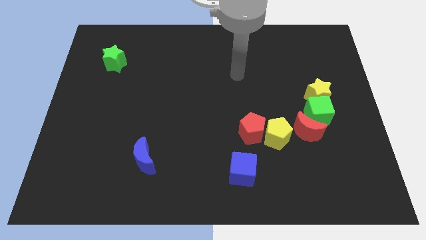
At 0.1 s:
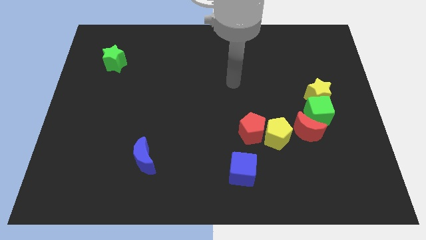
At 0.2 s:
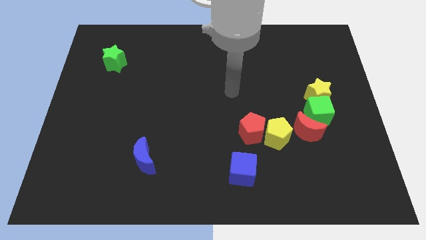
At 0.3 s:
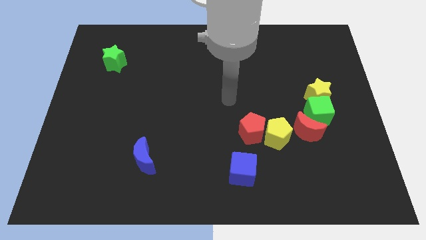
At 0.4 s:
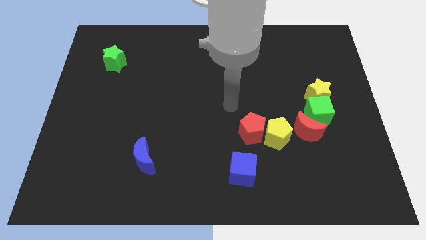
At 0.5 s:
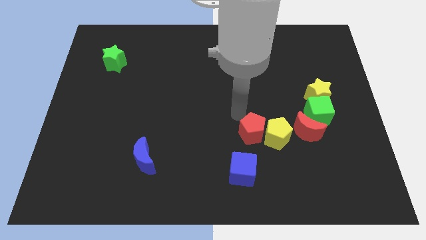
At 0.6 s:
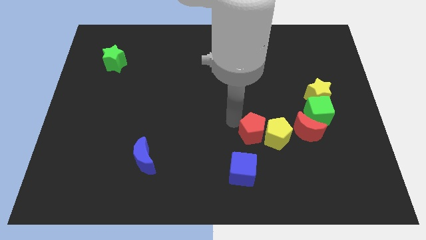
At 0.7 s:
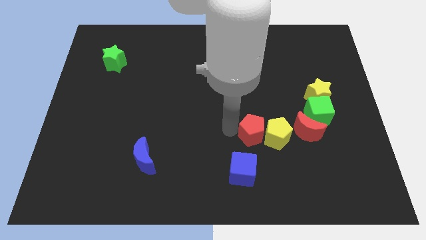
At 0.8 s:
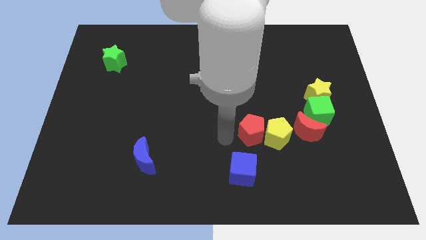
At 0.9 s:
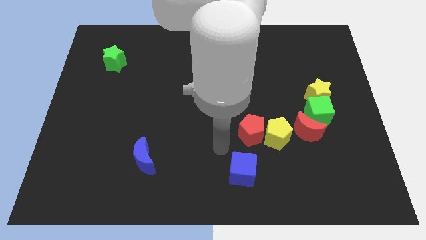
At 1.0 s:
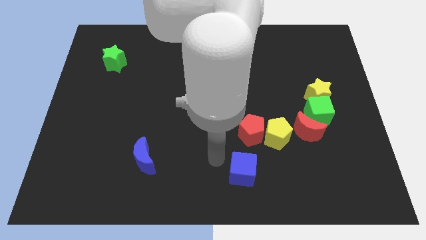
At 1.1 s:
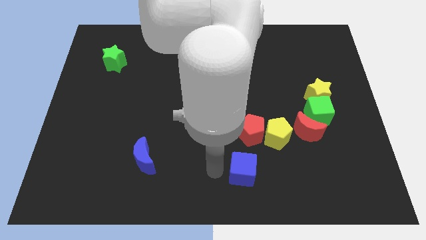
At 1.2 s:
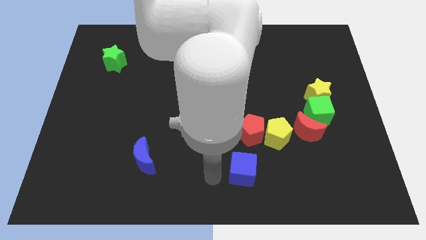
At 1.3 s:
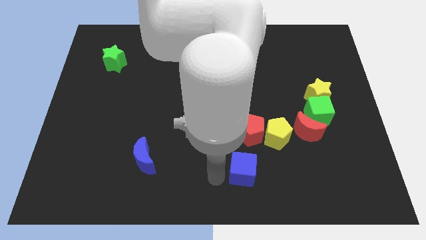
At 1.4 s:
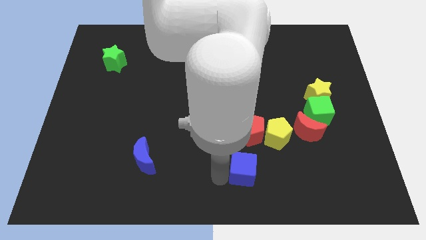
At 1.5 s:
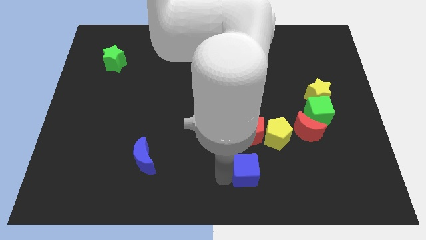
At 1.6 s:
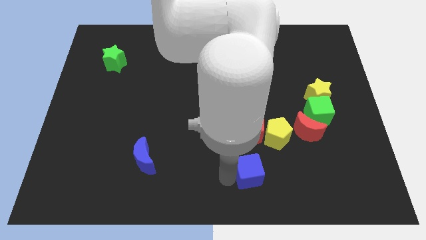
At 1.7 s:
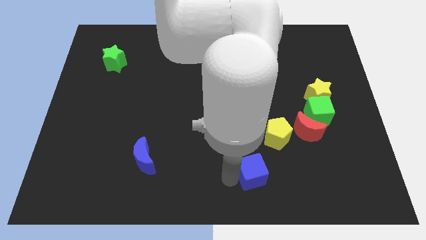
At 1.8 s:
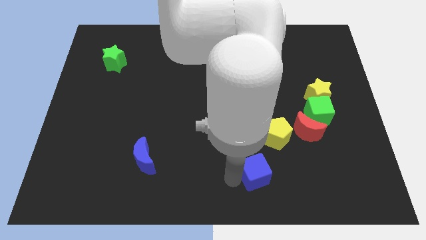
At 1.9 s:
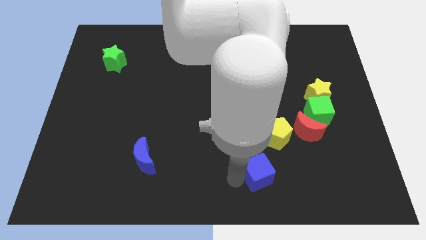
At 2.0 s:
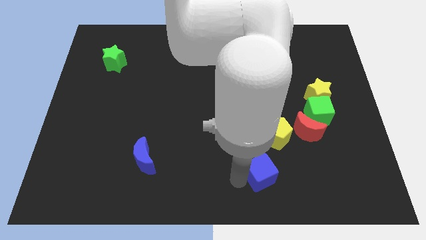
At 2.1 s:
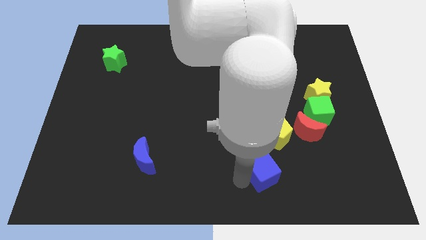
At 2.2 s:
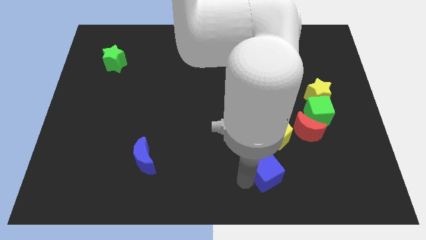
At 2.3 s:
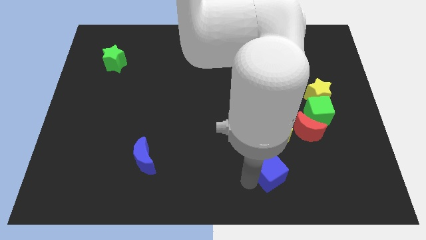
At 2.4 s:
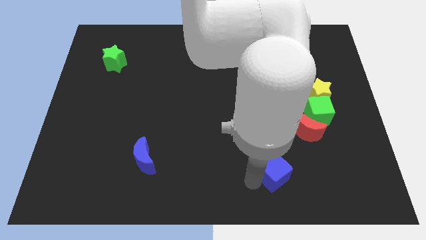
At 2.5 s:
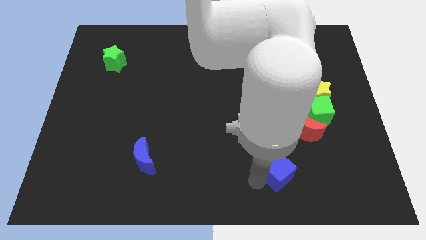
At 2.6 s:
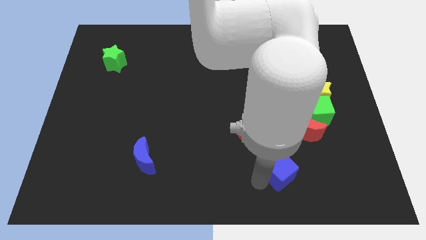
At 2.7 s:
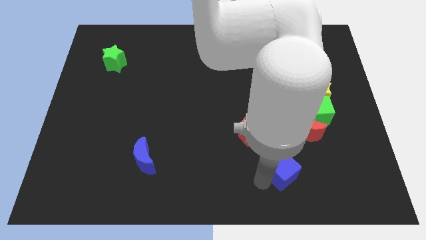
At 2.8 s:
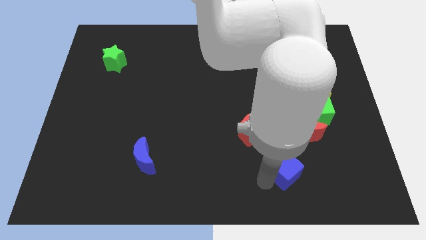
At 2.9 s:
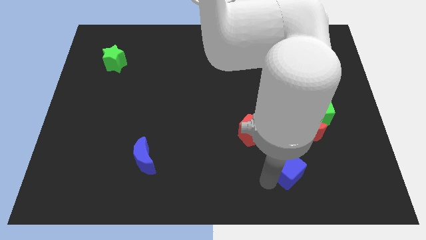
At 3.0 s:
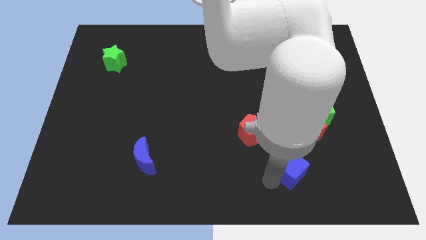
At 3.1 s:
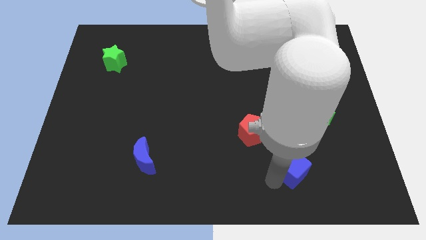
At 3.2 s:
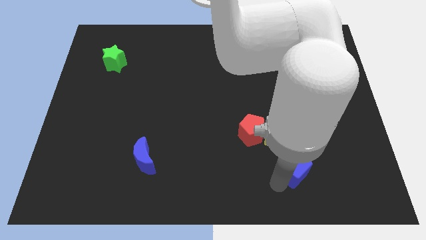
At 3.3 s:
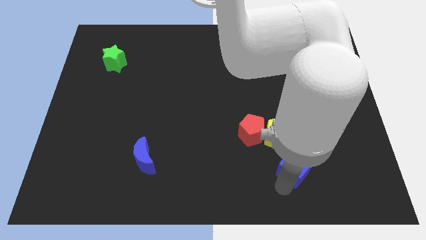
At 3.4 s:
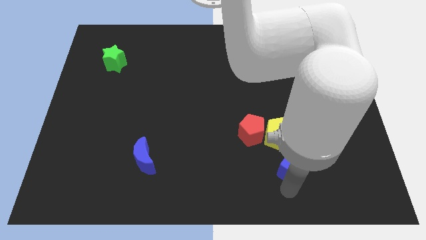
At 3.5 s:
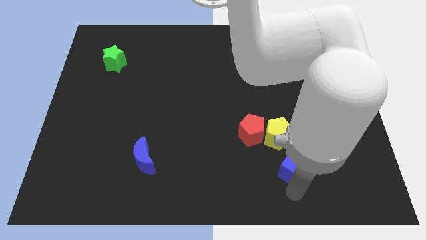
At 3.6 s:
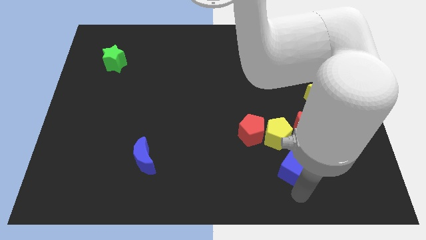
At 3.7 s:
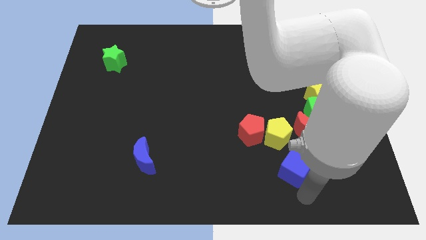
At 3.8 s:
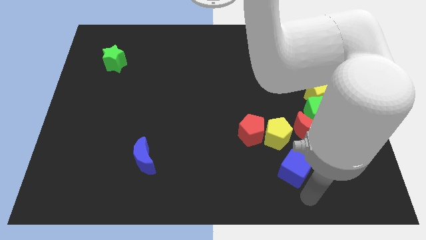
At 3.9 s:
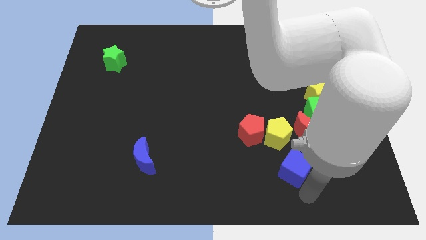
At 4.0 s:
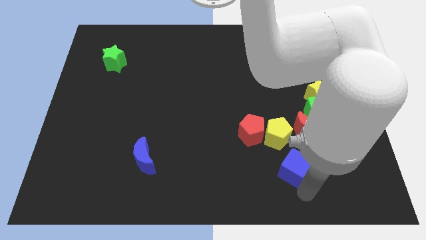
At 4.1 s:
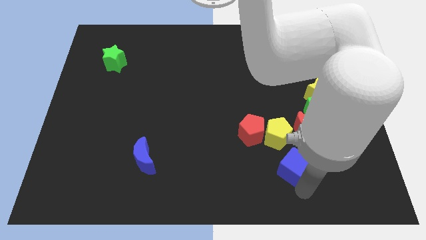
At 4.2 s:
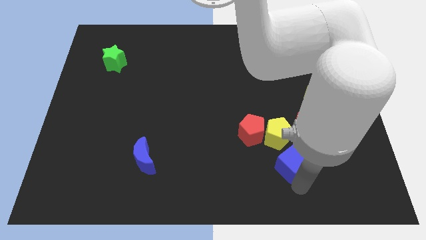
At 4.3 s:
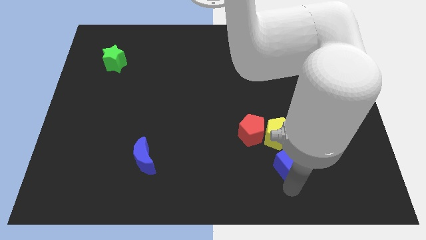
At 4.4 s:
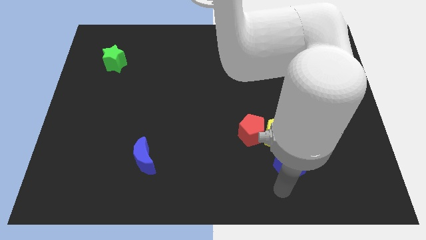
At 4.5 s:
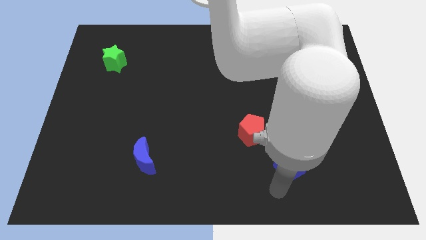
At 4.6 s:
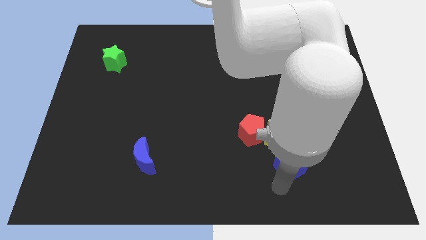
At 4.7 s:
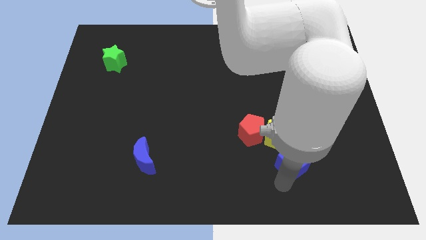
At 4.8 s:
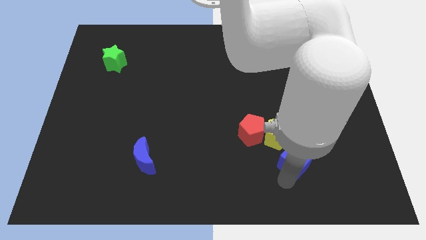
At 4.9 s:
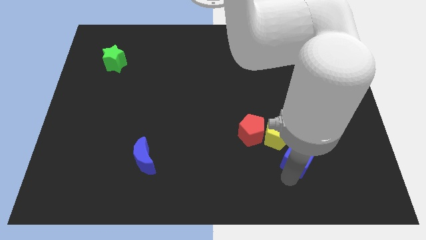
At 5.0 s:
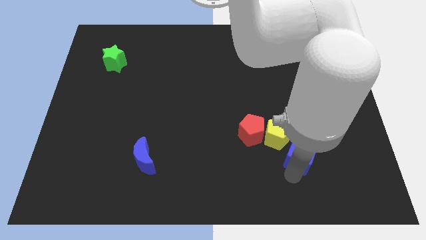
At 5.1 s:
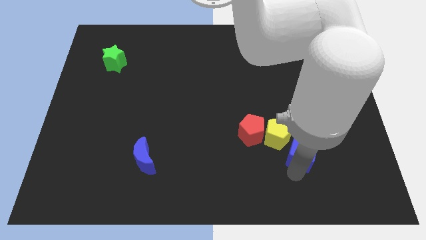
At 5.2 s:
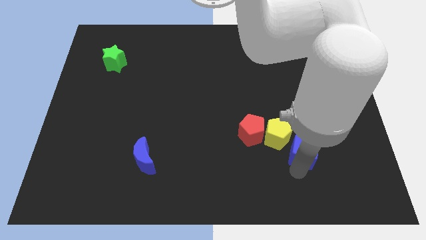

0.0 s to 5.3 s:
push the blue cube next to the red moon

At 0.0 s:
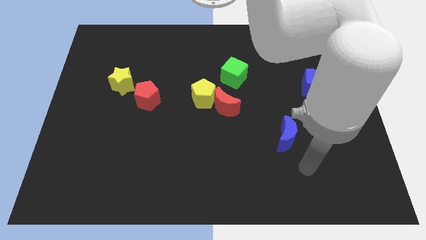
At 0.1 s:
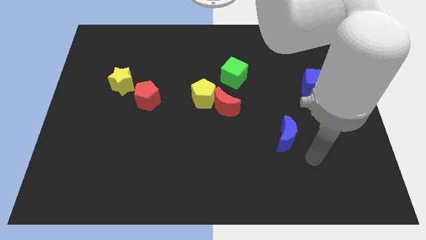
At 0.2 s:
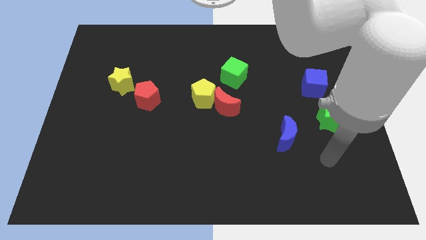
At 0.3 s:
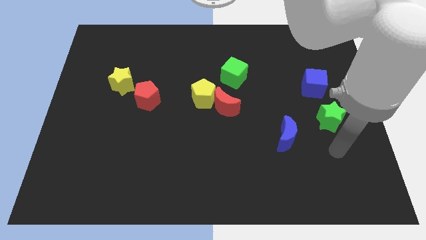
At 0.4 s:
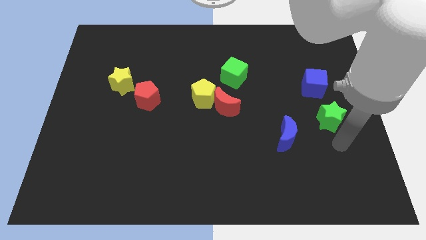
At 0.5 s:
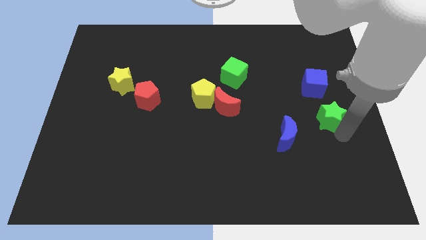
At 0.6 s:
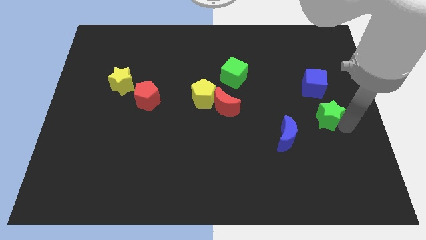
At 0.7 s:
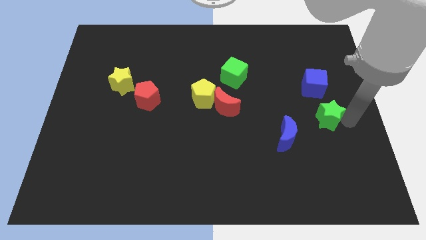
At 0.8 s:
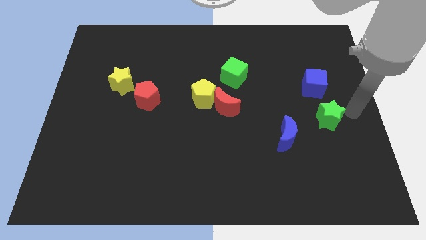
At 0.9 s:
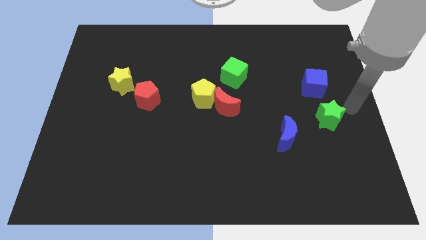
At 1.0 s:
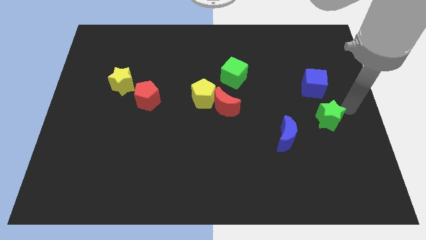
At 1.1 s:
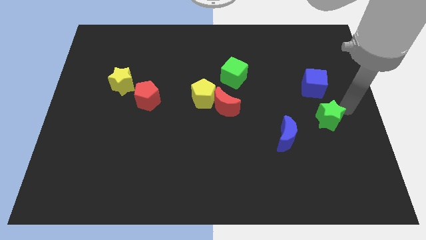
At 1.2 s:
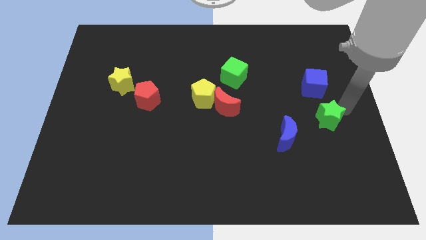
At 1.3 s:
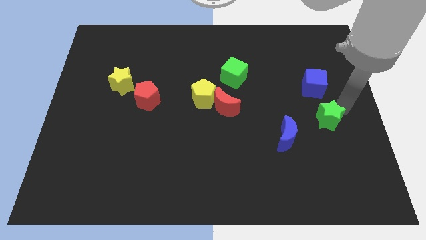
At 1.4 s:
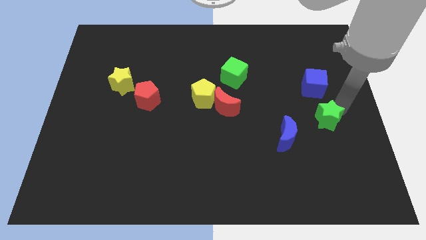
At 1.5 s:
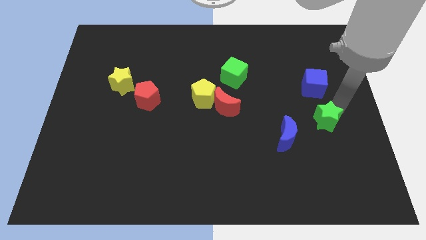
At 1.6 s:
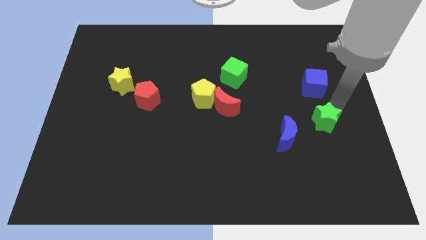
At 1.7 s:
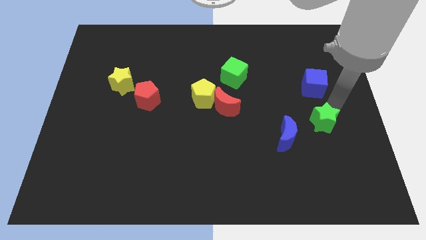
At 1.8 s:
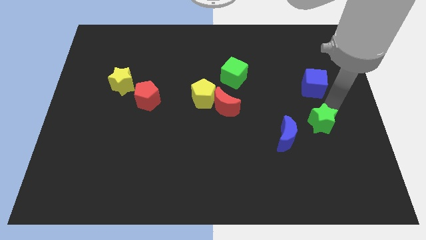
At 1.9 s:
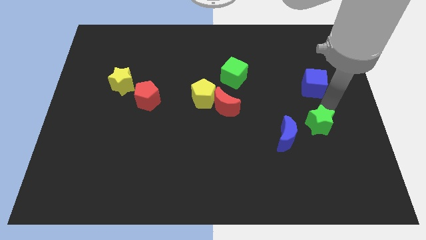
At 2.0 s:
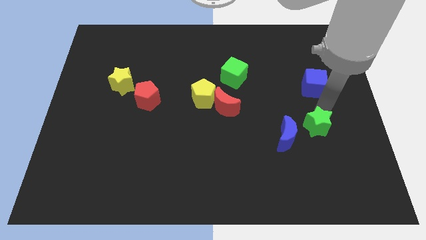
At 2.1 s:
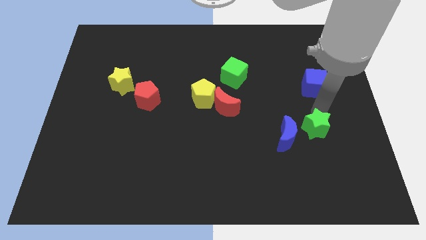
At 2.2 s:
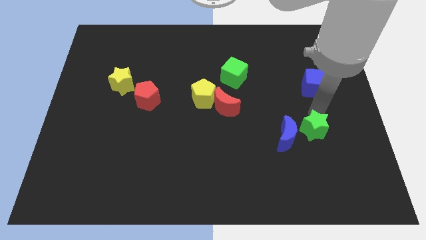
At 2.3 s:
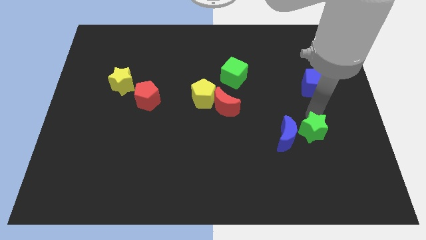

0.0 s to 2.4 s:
push the green star close to the blue moon

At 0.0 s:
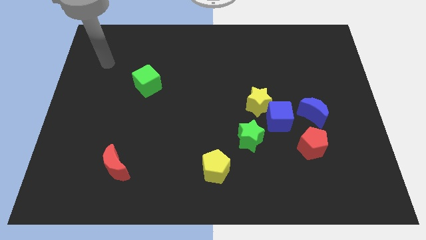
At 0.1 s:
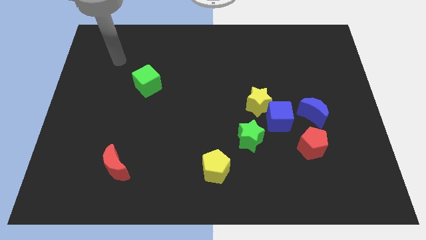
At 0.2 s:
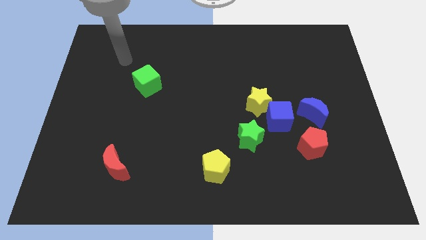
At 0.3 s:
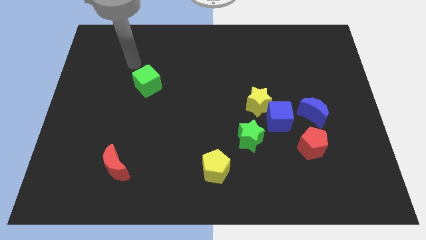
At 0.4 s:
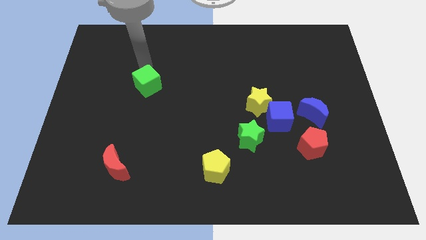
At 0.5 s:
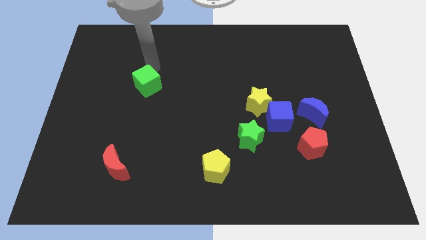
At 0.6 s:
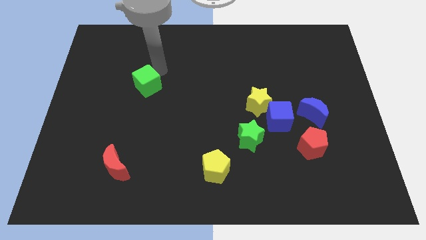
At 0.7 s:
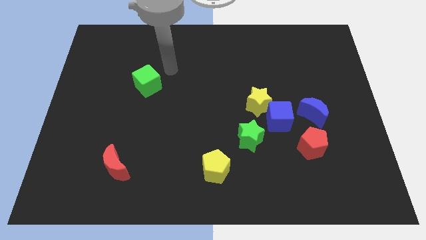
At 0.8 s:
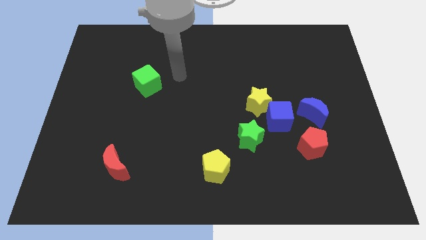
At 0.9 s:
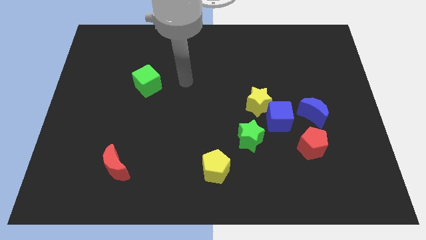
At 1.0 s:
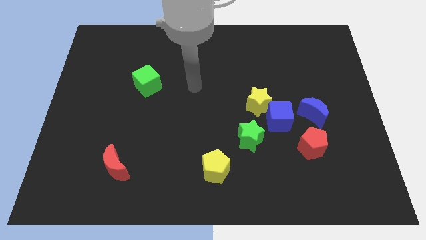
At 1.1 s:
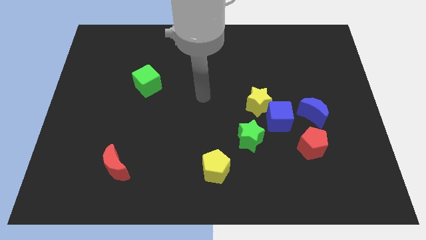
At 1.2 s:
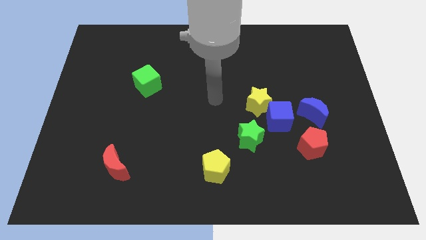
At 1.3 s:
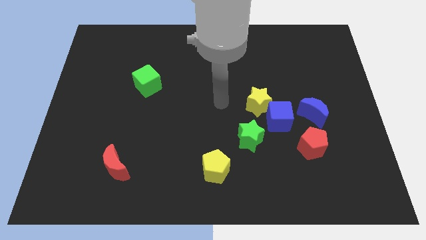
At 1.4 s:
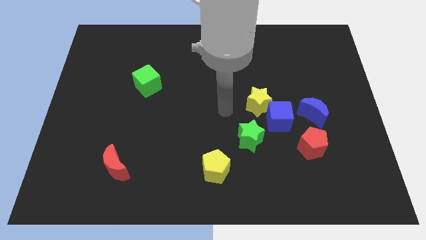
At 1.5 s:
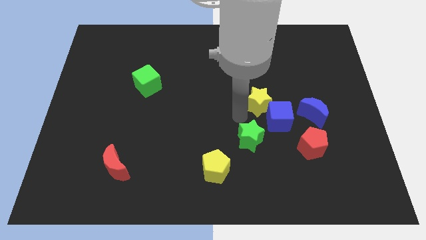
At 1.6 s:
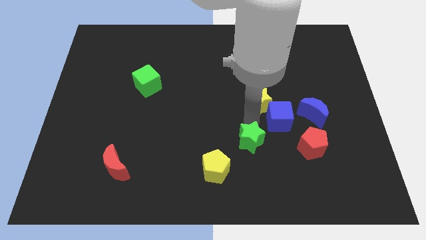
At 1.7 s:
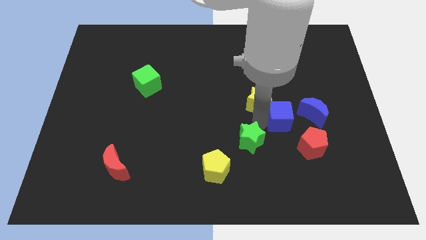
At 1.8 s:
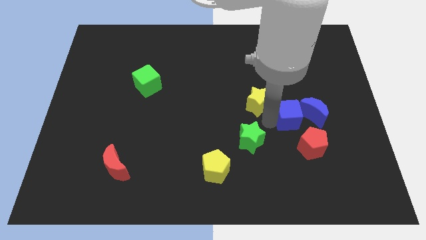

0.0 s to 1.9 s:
slide the blue cube to the blue moon
